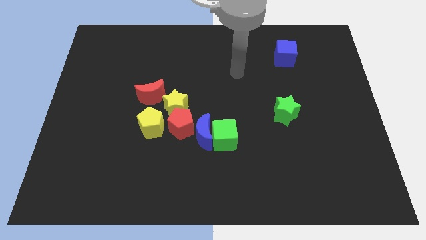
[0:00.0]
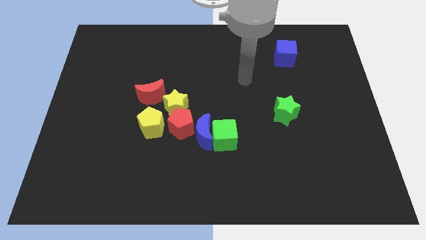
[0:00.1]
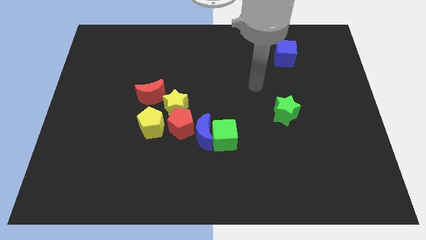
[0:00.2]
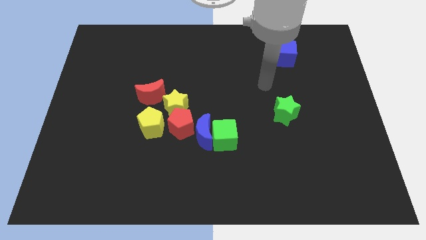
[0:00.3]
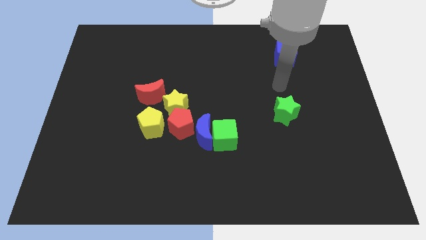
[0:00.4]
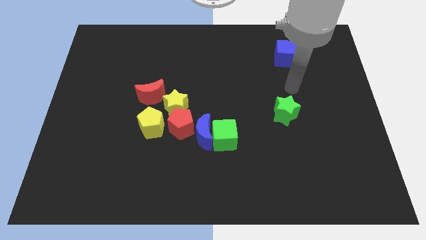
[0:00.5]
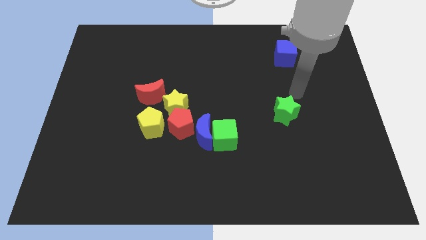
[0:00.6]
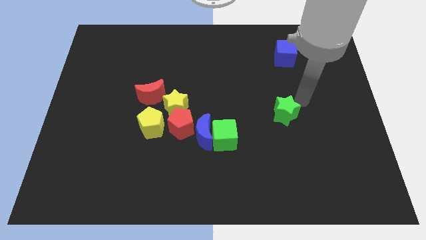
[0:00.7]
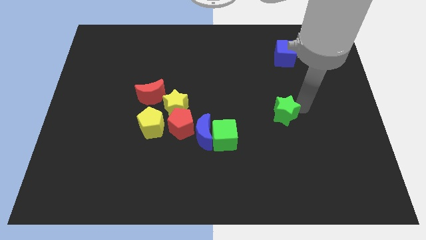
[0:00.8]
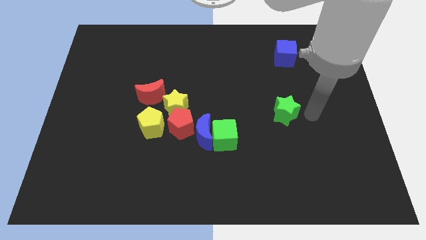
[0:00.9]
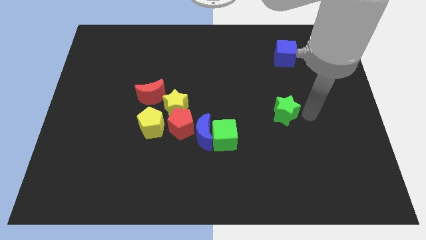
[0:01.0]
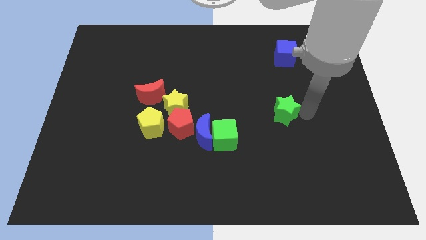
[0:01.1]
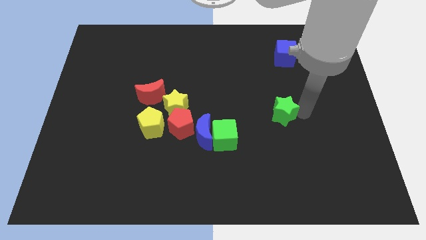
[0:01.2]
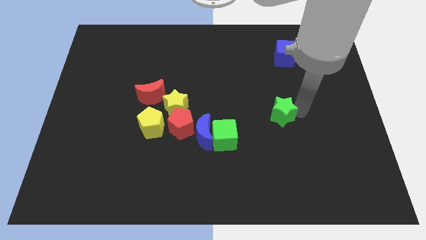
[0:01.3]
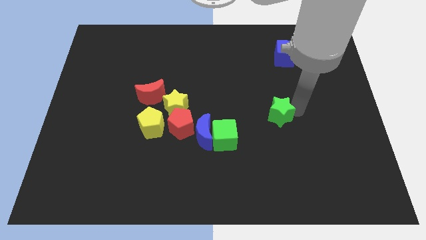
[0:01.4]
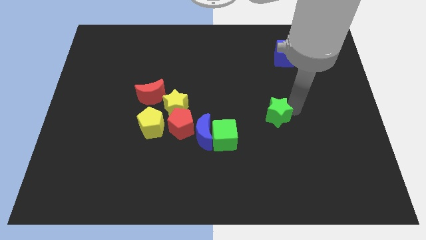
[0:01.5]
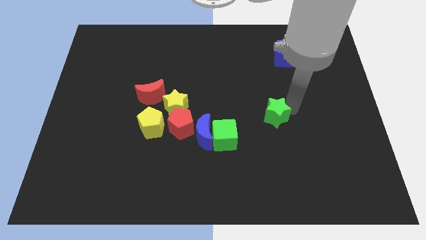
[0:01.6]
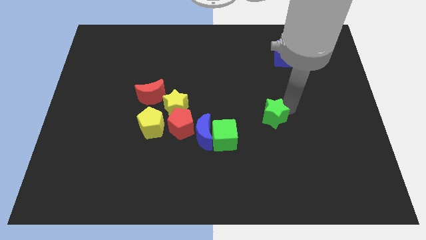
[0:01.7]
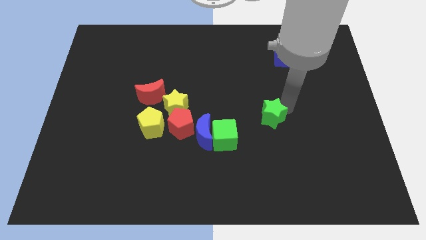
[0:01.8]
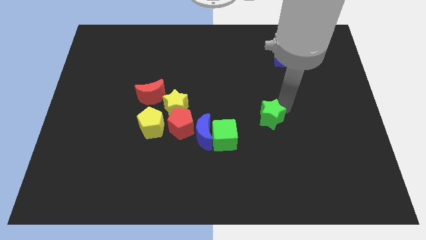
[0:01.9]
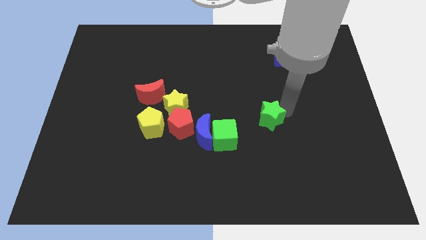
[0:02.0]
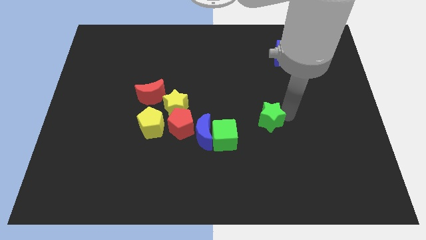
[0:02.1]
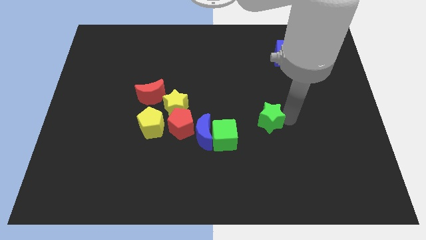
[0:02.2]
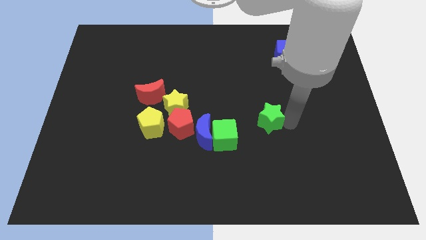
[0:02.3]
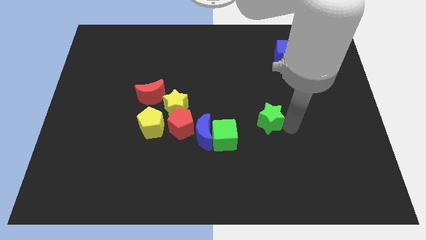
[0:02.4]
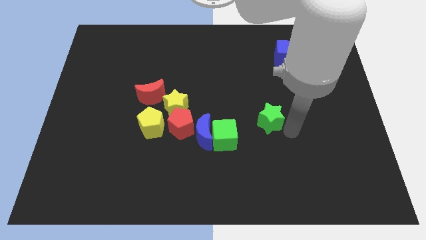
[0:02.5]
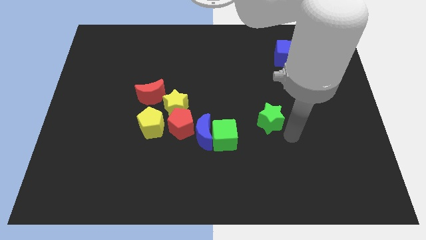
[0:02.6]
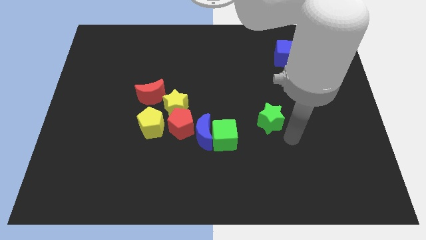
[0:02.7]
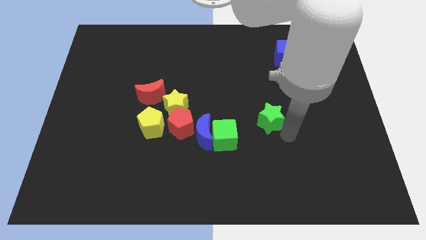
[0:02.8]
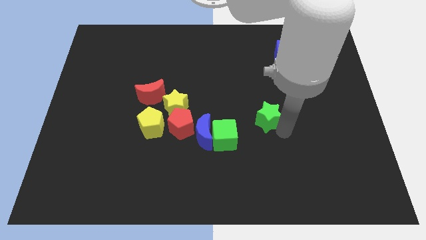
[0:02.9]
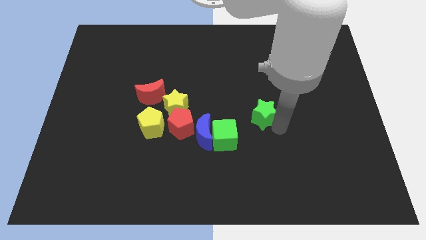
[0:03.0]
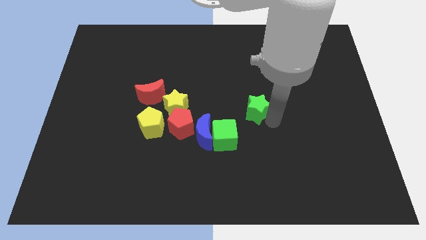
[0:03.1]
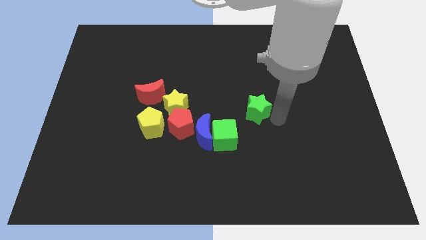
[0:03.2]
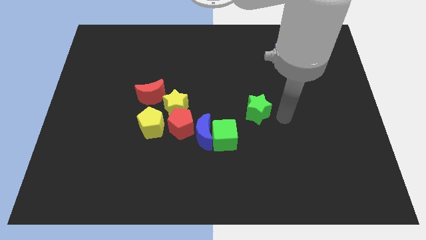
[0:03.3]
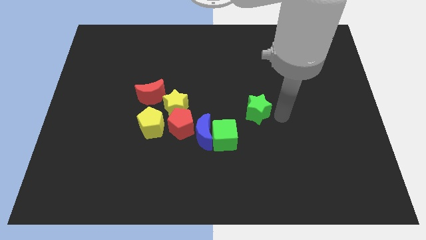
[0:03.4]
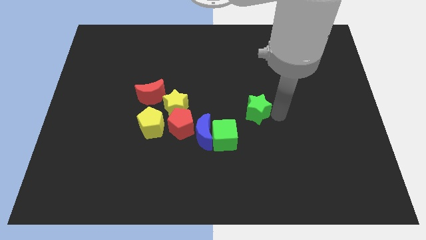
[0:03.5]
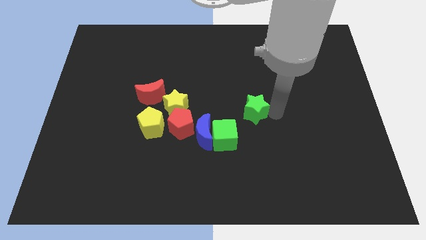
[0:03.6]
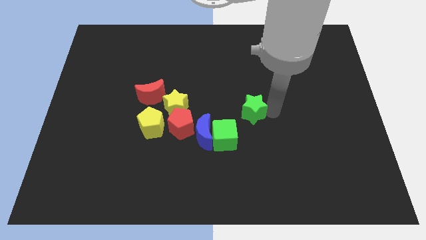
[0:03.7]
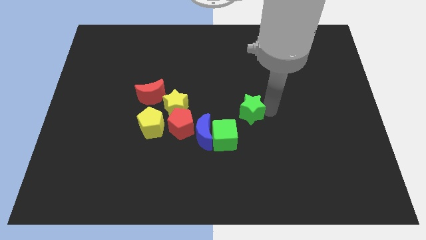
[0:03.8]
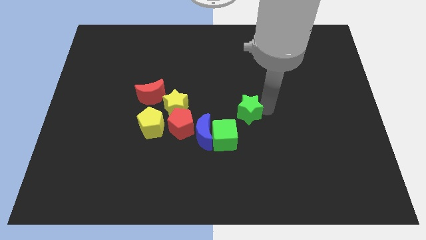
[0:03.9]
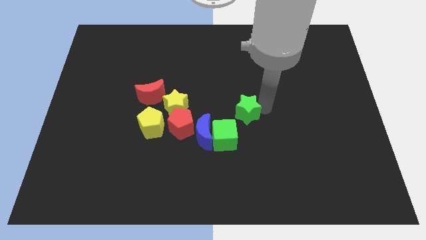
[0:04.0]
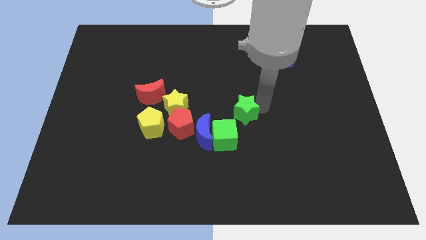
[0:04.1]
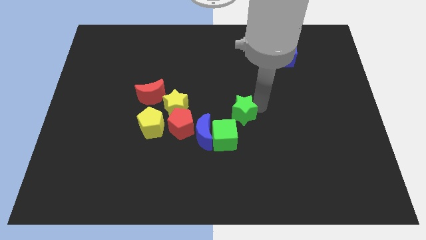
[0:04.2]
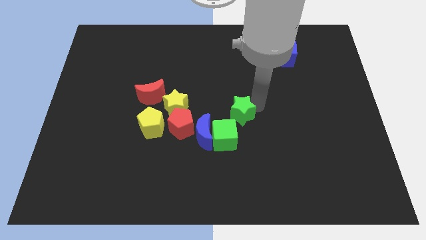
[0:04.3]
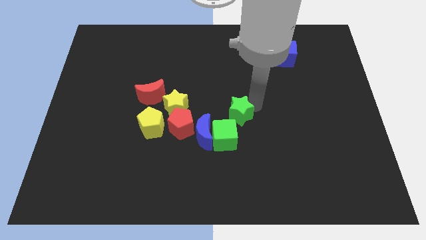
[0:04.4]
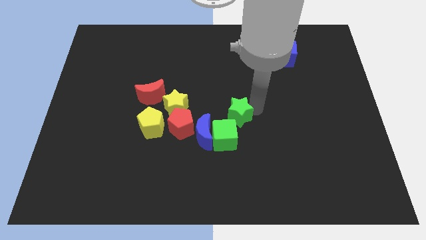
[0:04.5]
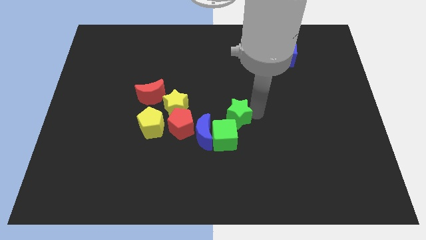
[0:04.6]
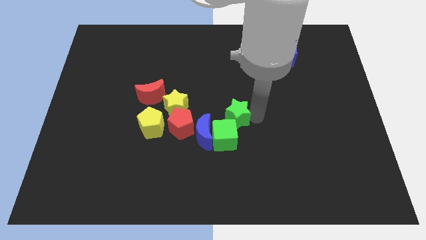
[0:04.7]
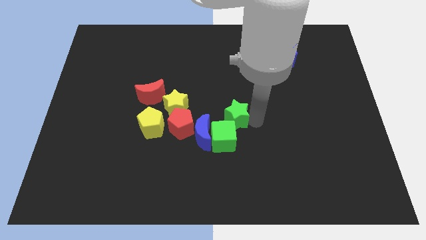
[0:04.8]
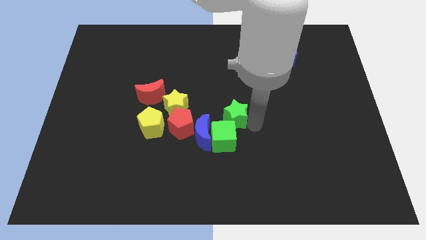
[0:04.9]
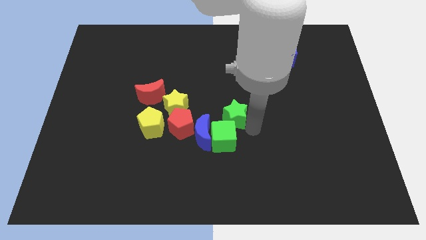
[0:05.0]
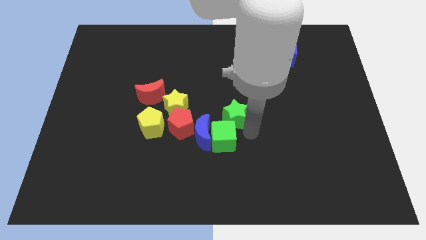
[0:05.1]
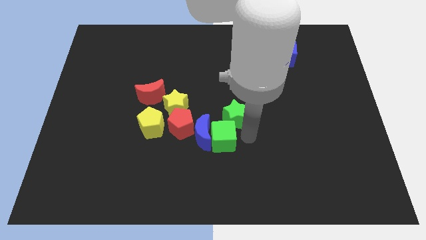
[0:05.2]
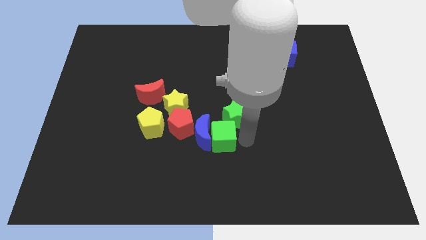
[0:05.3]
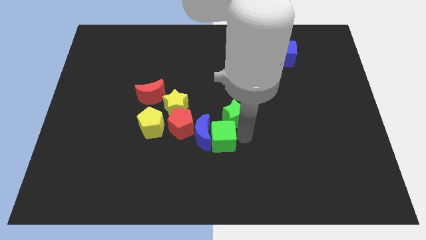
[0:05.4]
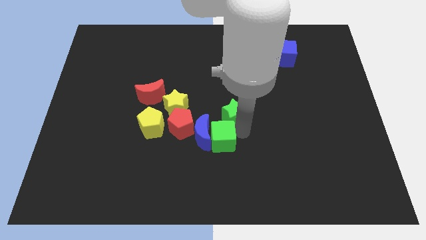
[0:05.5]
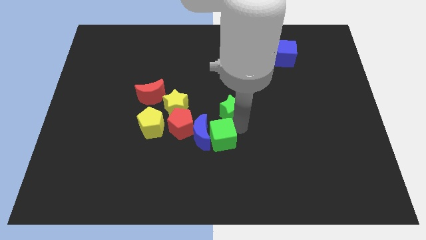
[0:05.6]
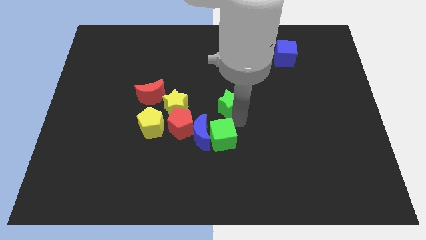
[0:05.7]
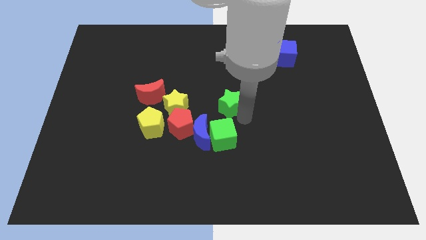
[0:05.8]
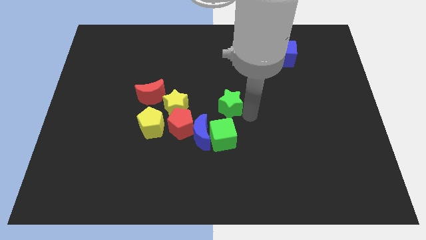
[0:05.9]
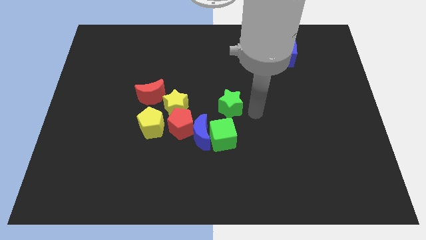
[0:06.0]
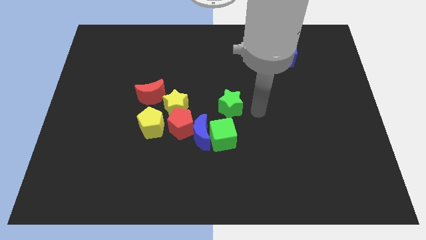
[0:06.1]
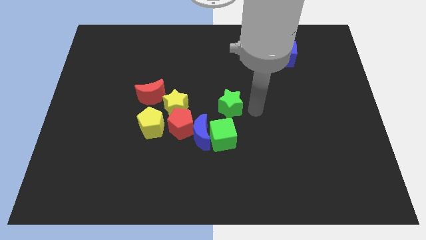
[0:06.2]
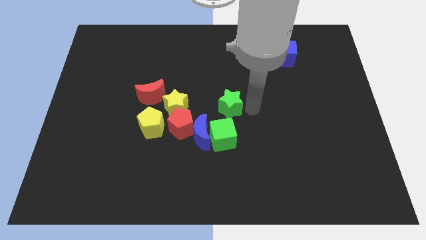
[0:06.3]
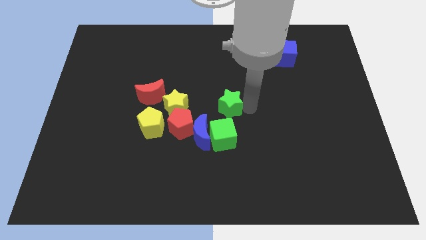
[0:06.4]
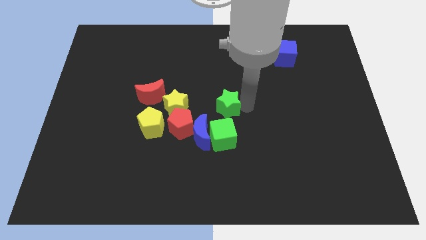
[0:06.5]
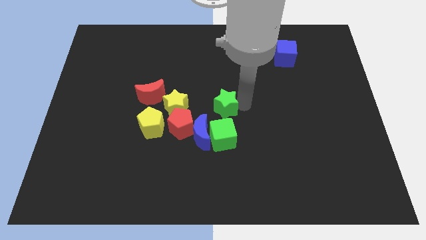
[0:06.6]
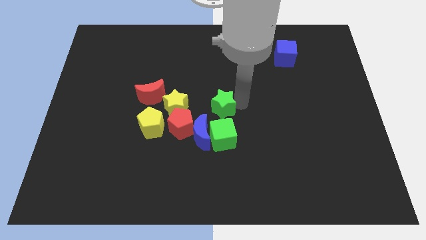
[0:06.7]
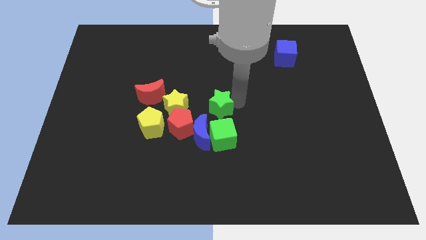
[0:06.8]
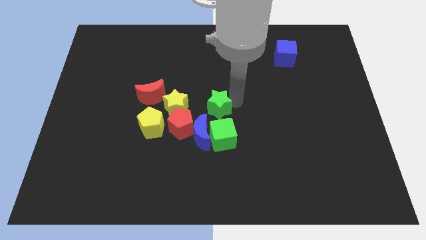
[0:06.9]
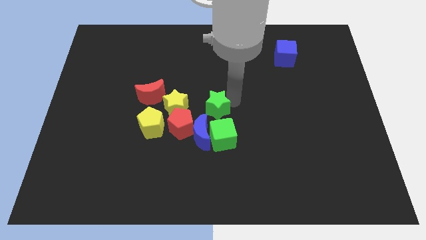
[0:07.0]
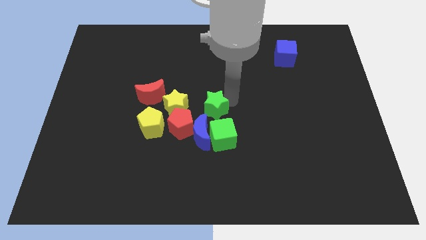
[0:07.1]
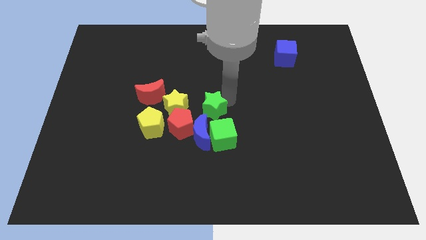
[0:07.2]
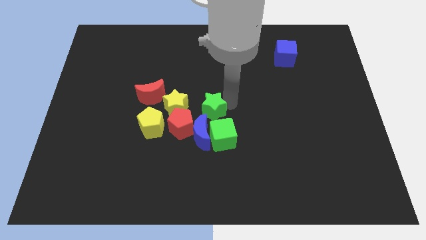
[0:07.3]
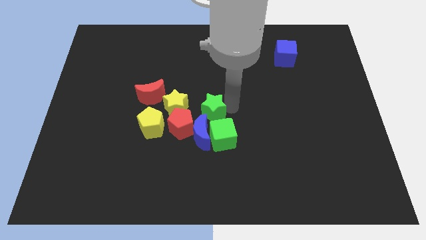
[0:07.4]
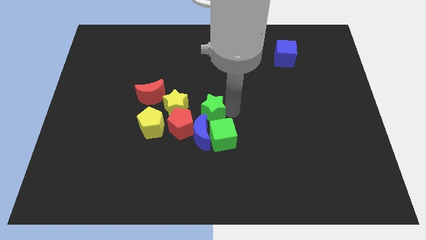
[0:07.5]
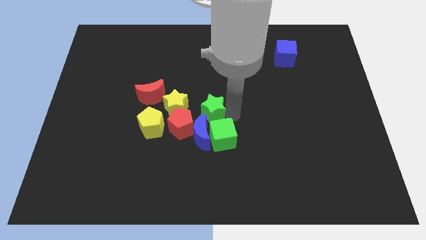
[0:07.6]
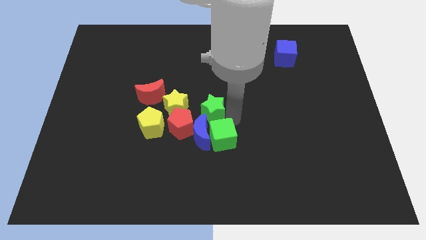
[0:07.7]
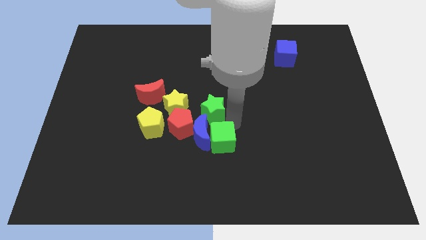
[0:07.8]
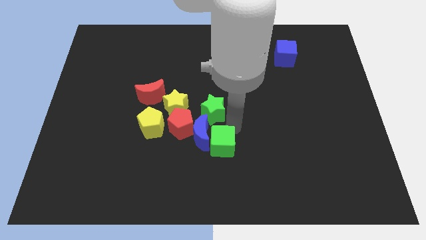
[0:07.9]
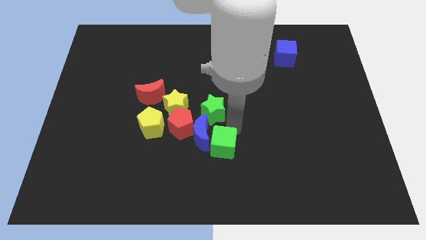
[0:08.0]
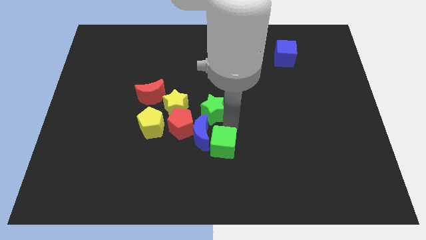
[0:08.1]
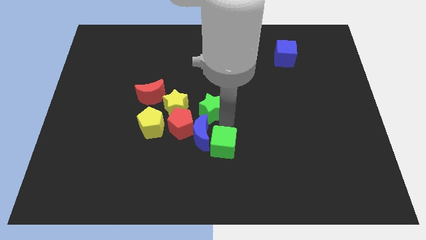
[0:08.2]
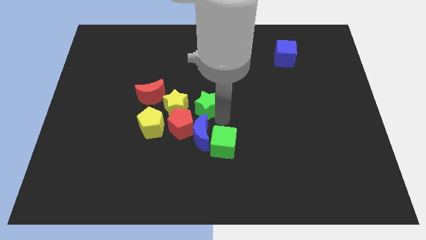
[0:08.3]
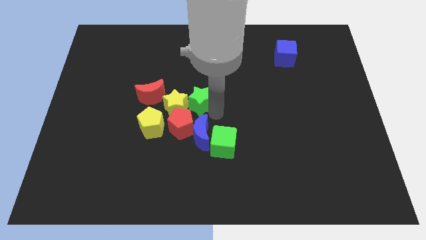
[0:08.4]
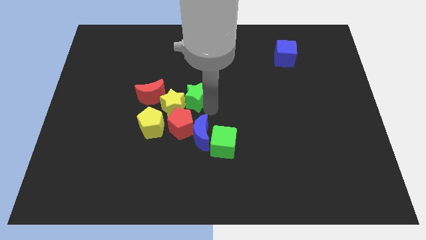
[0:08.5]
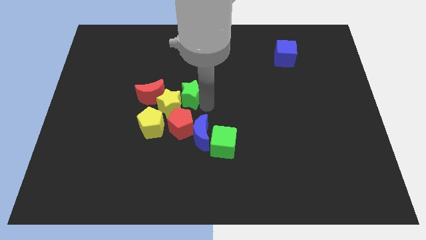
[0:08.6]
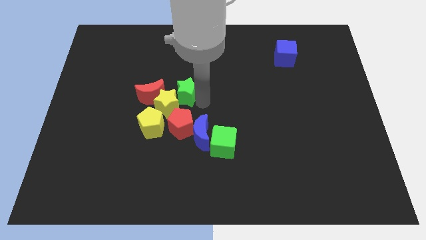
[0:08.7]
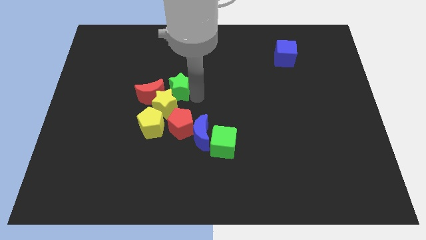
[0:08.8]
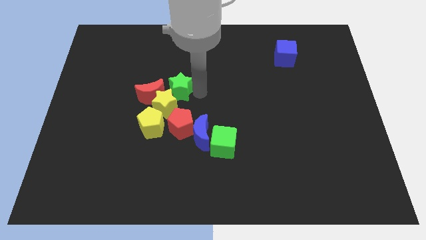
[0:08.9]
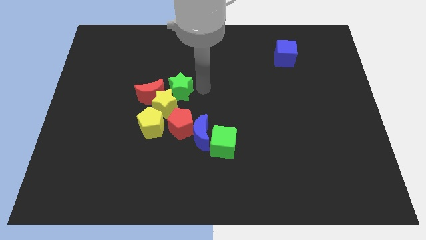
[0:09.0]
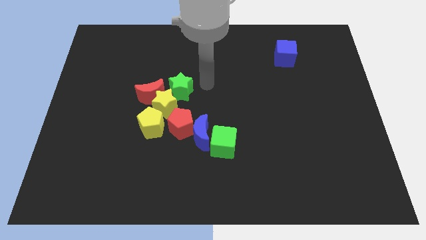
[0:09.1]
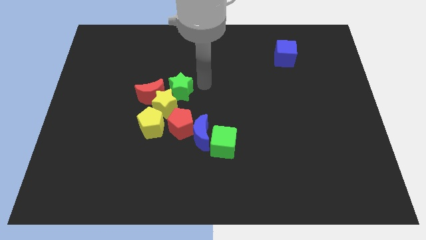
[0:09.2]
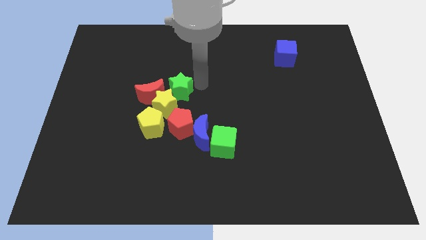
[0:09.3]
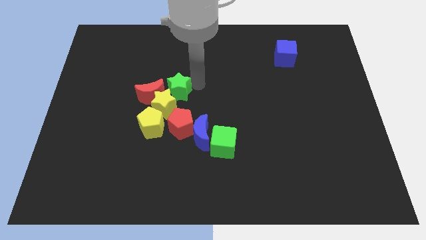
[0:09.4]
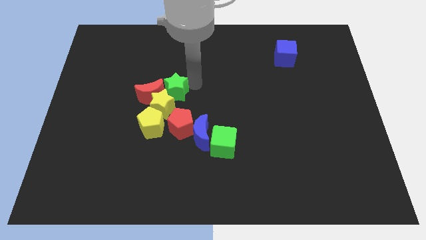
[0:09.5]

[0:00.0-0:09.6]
put the green star to the red moon
